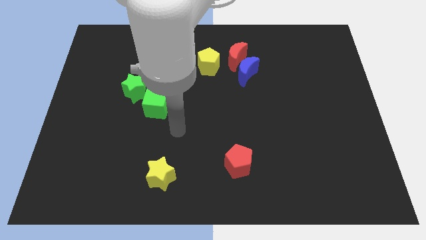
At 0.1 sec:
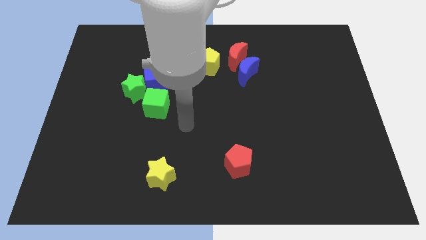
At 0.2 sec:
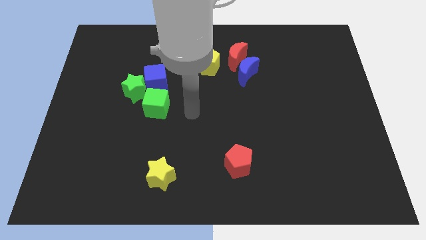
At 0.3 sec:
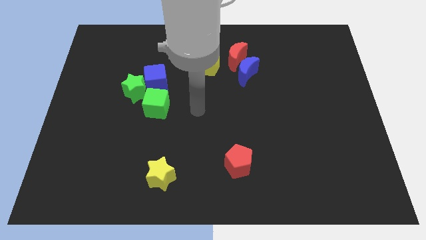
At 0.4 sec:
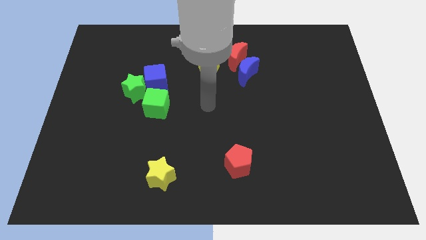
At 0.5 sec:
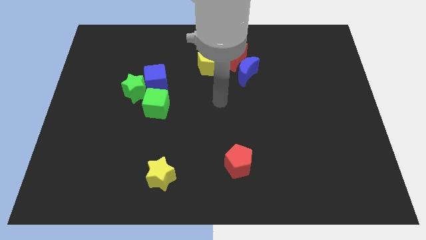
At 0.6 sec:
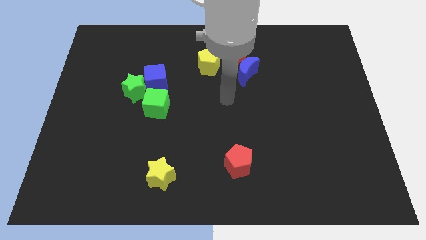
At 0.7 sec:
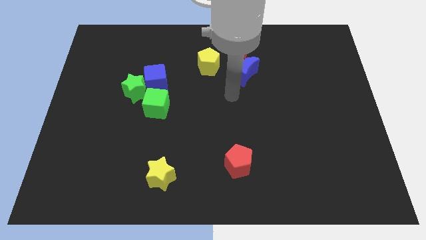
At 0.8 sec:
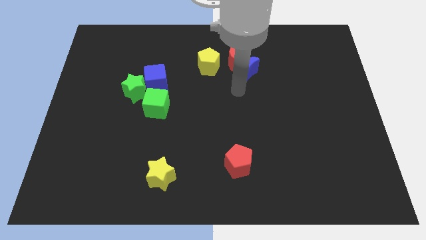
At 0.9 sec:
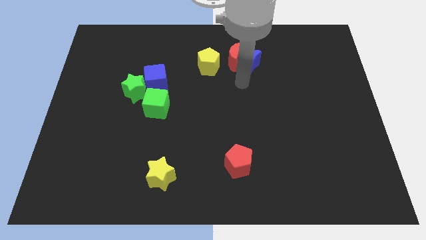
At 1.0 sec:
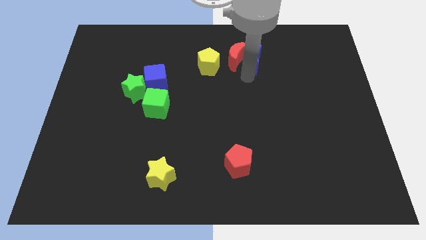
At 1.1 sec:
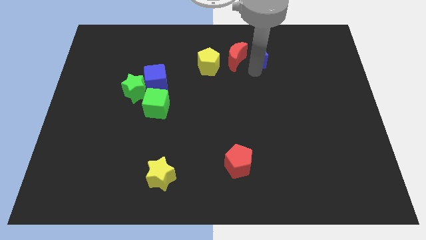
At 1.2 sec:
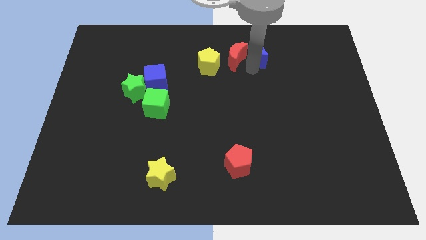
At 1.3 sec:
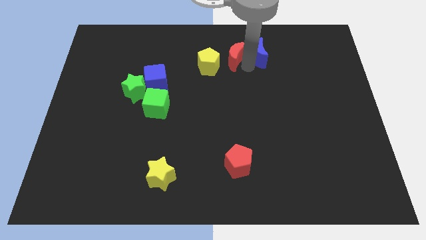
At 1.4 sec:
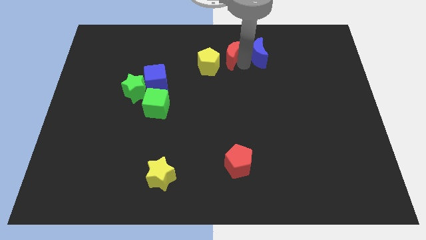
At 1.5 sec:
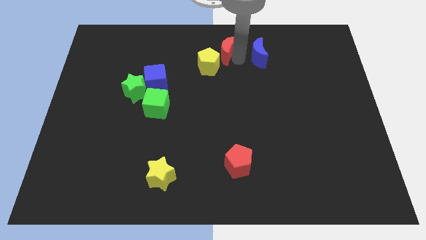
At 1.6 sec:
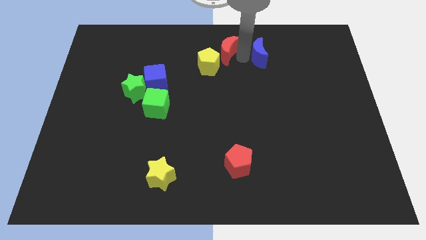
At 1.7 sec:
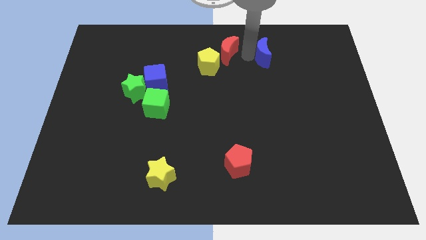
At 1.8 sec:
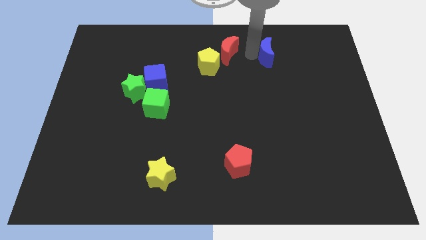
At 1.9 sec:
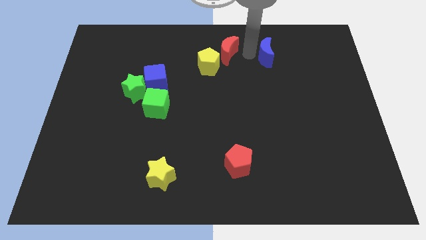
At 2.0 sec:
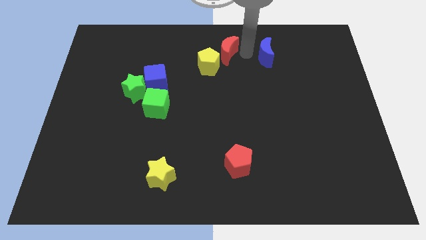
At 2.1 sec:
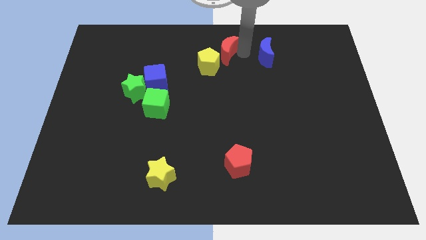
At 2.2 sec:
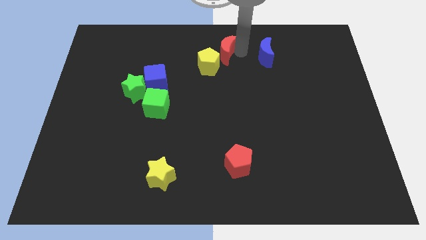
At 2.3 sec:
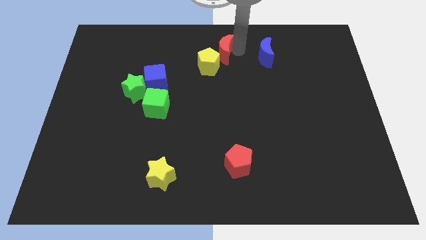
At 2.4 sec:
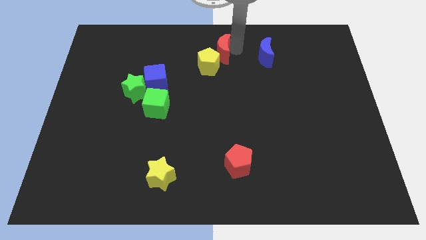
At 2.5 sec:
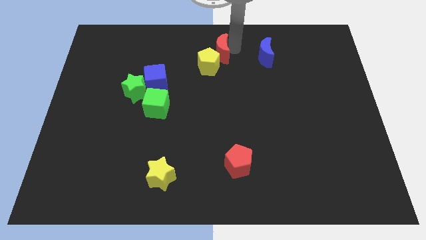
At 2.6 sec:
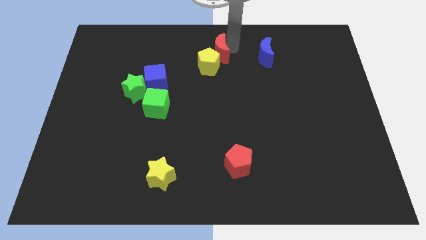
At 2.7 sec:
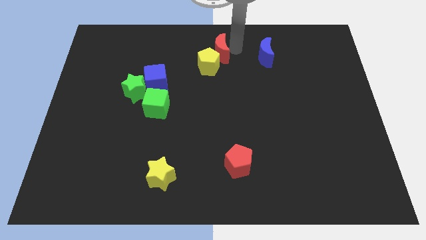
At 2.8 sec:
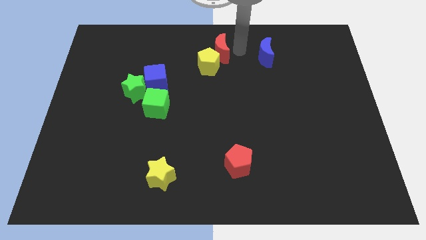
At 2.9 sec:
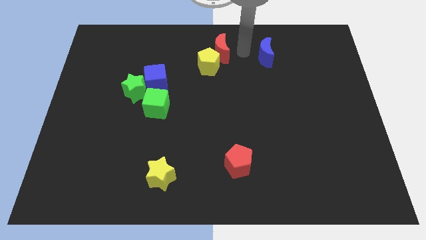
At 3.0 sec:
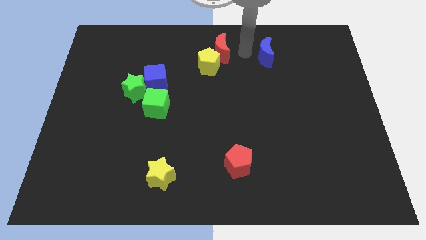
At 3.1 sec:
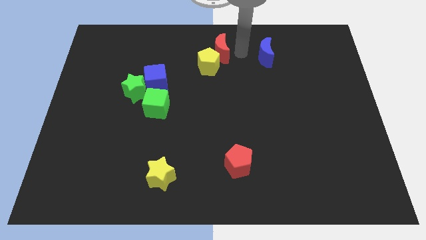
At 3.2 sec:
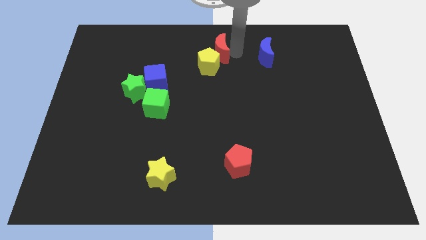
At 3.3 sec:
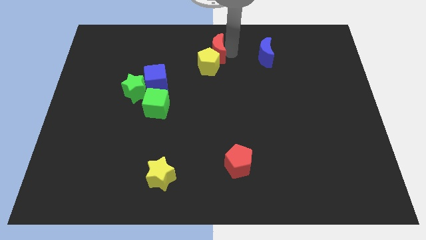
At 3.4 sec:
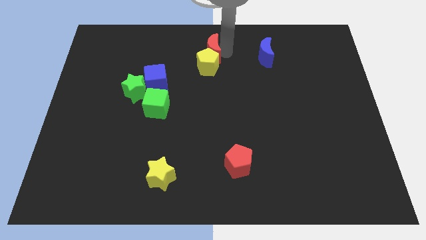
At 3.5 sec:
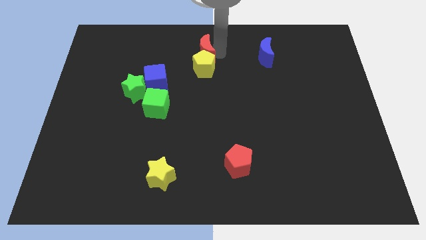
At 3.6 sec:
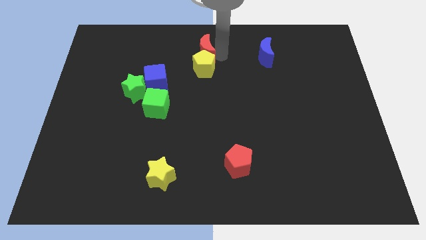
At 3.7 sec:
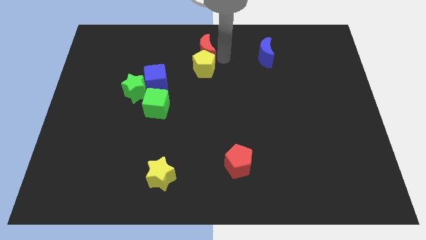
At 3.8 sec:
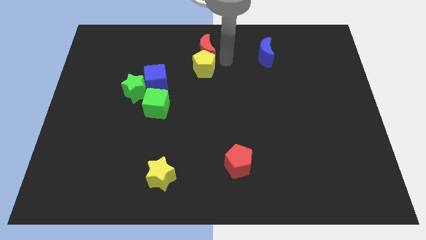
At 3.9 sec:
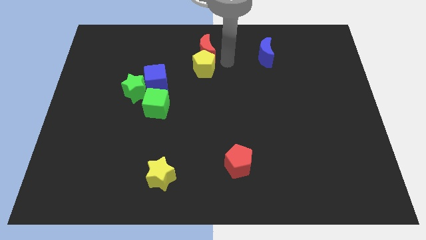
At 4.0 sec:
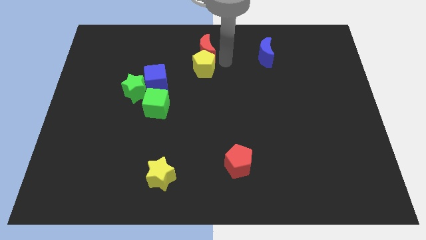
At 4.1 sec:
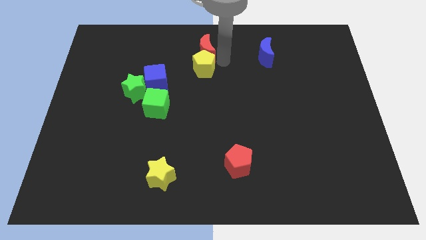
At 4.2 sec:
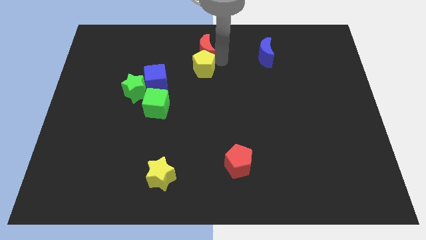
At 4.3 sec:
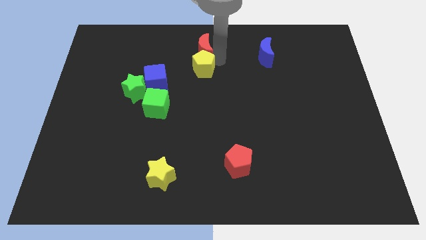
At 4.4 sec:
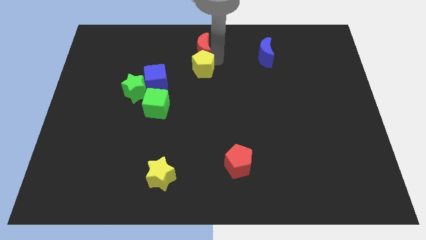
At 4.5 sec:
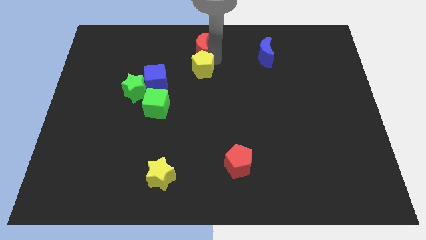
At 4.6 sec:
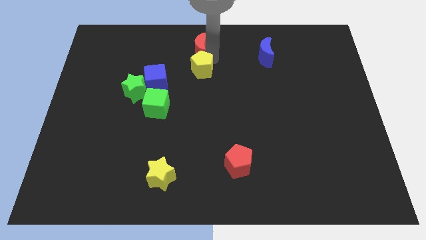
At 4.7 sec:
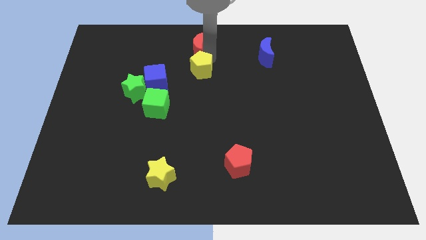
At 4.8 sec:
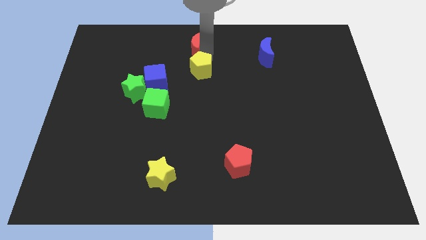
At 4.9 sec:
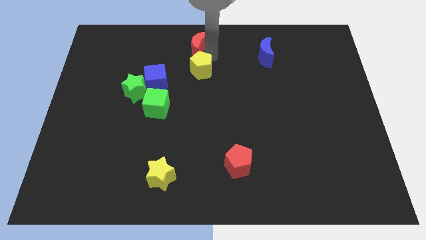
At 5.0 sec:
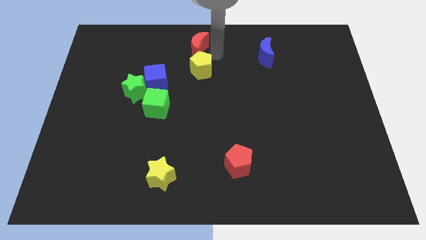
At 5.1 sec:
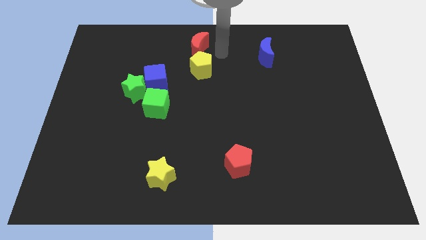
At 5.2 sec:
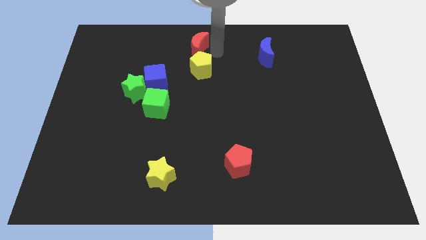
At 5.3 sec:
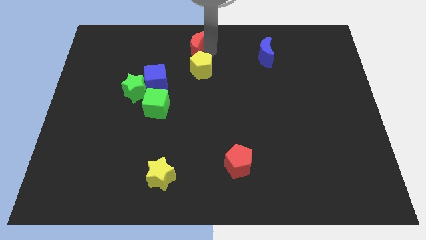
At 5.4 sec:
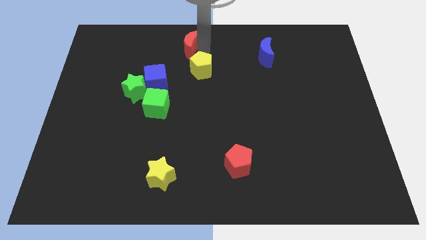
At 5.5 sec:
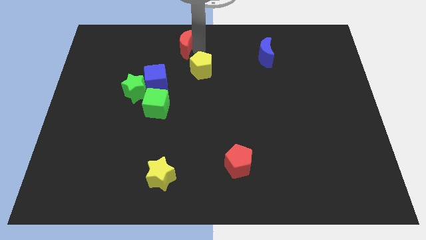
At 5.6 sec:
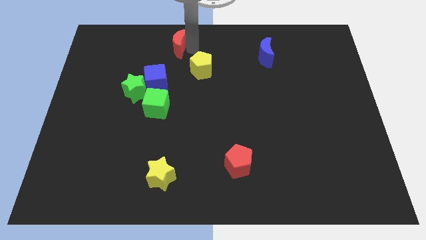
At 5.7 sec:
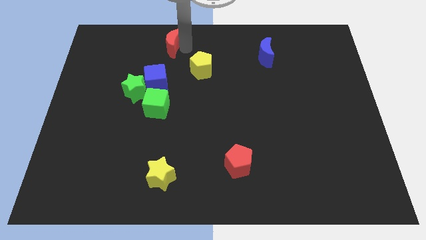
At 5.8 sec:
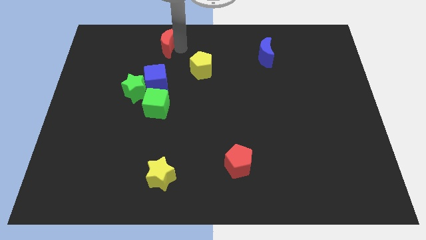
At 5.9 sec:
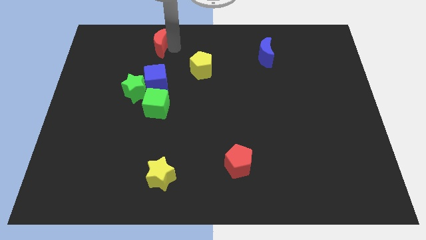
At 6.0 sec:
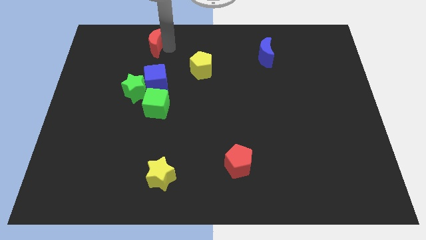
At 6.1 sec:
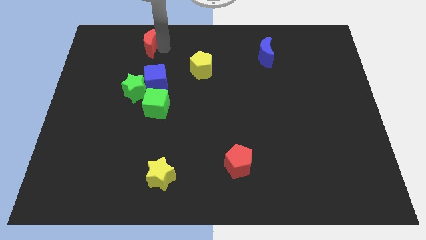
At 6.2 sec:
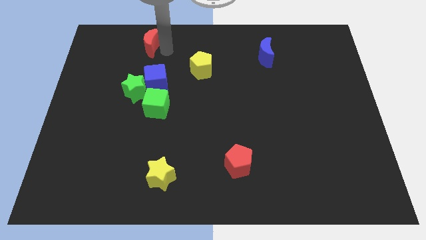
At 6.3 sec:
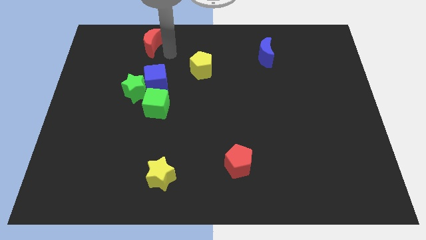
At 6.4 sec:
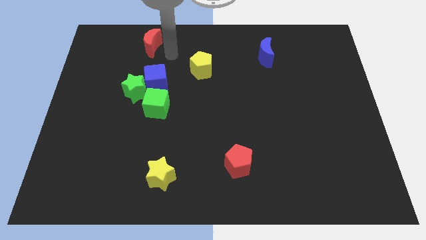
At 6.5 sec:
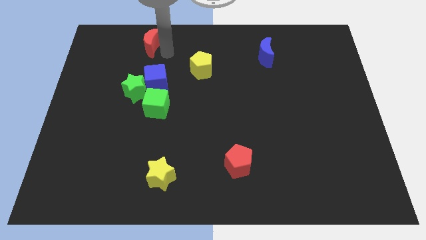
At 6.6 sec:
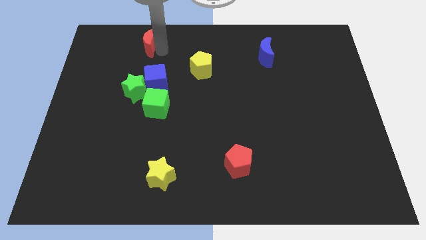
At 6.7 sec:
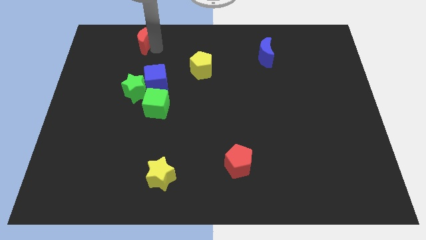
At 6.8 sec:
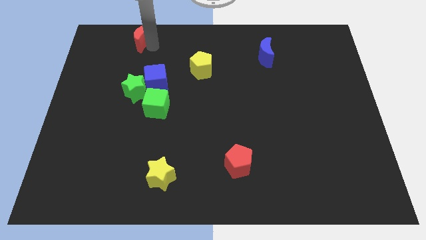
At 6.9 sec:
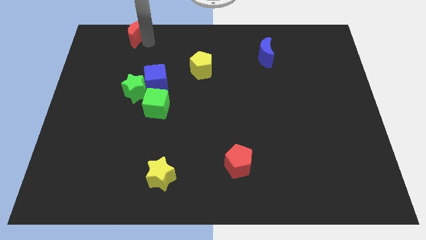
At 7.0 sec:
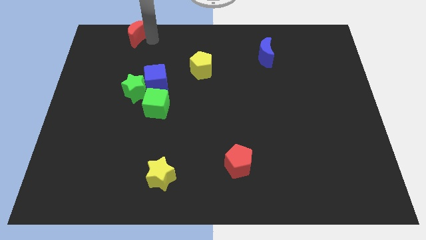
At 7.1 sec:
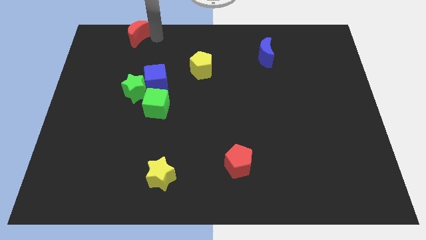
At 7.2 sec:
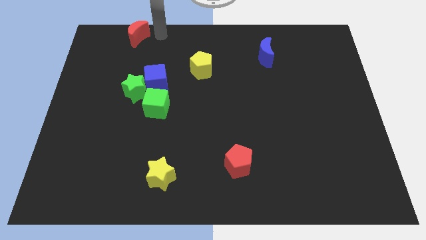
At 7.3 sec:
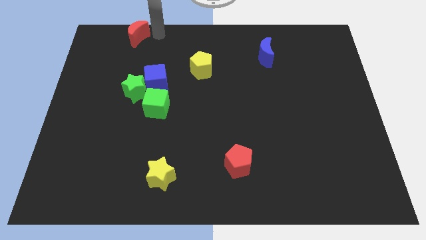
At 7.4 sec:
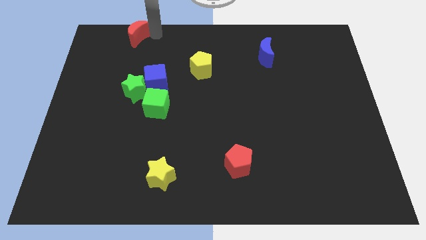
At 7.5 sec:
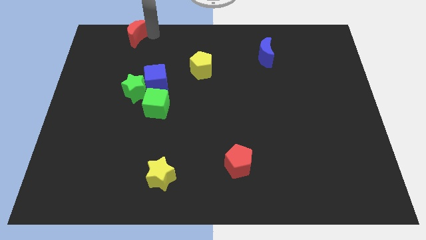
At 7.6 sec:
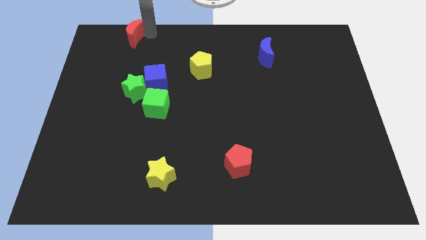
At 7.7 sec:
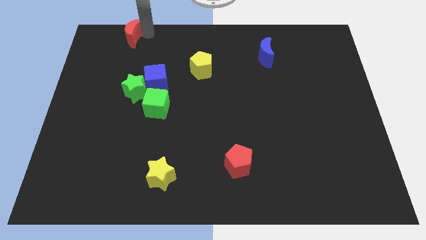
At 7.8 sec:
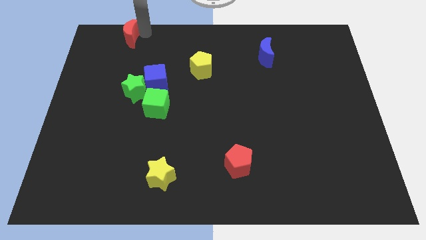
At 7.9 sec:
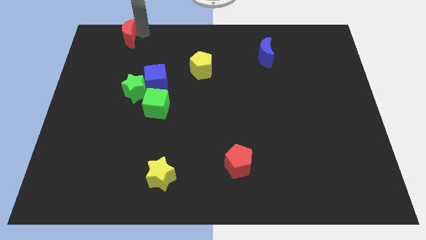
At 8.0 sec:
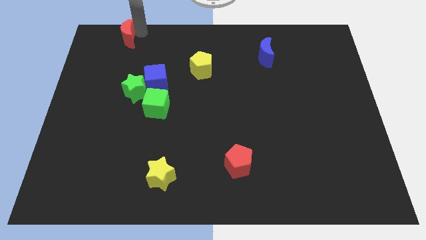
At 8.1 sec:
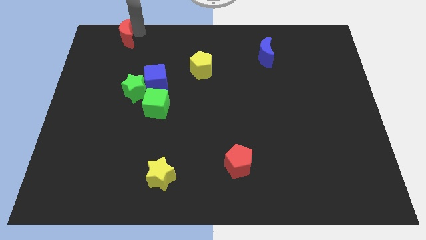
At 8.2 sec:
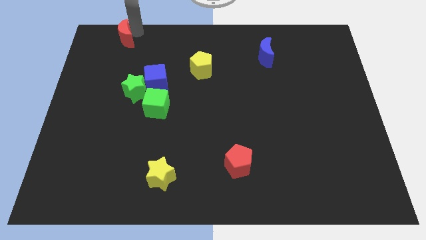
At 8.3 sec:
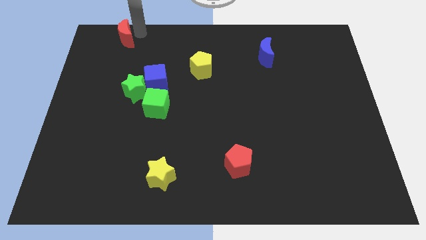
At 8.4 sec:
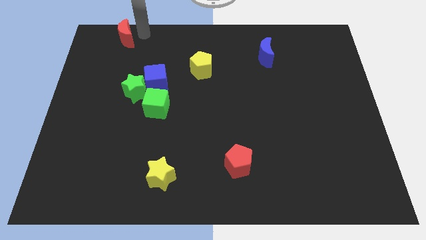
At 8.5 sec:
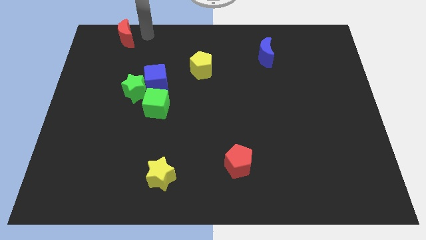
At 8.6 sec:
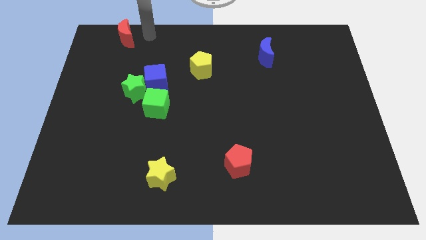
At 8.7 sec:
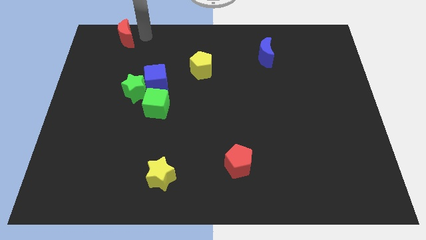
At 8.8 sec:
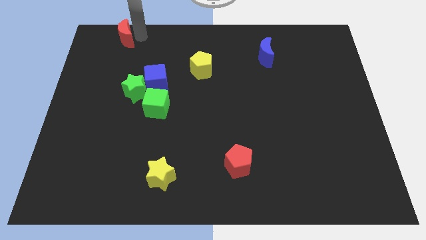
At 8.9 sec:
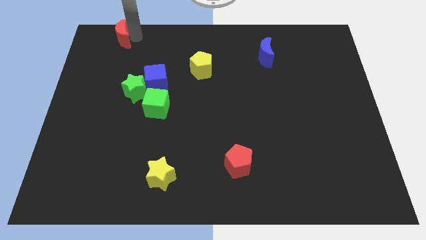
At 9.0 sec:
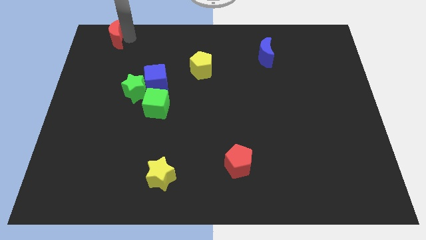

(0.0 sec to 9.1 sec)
move the red moon to the top left of the board
